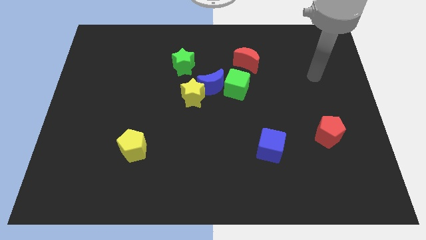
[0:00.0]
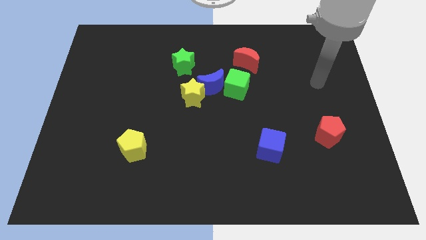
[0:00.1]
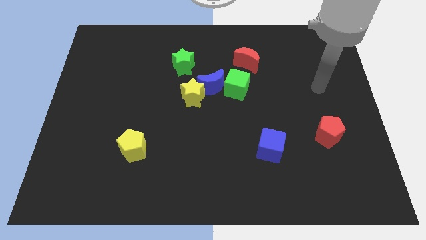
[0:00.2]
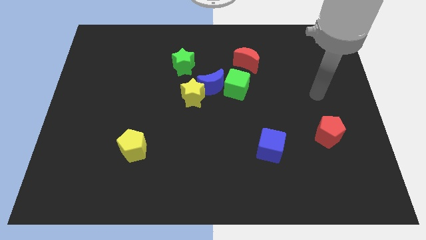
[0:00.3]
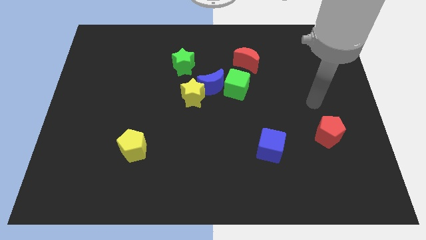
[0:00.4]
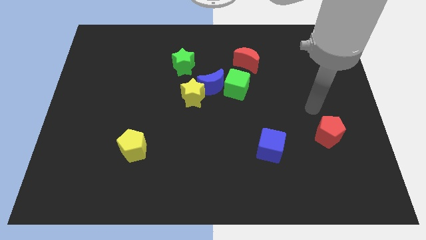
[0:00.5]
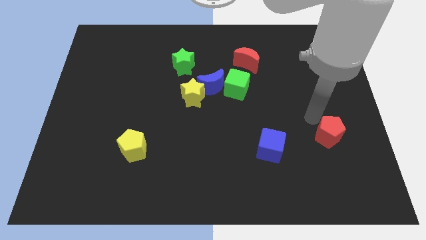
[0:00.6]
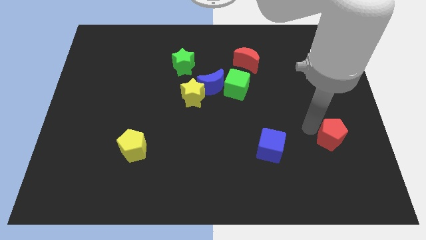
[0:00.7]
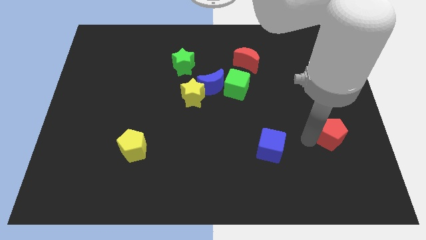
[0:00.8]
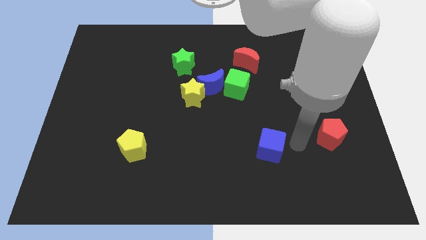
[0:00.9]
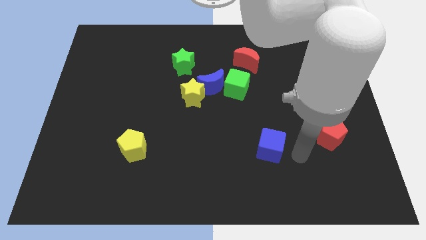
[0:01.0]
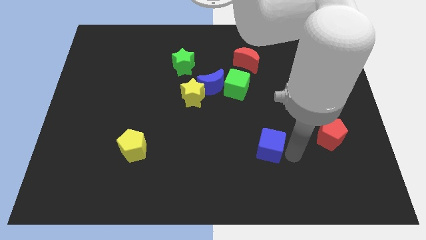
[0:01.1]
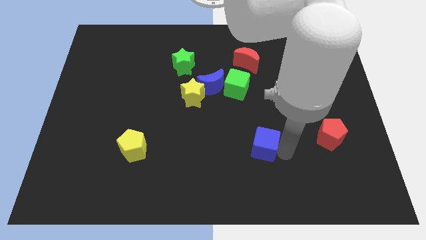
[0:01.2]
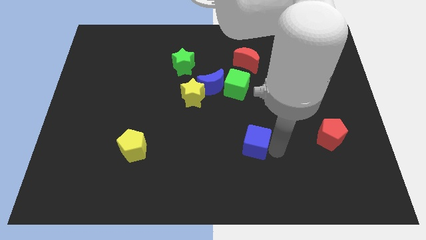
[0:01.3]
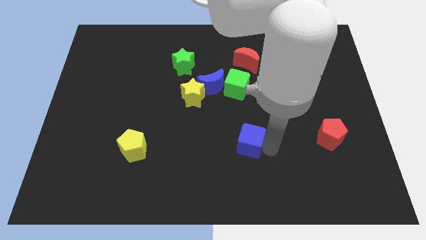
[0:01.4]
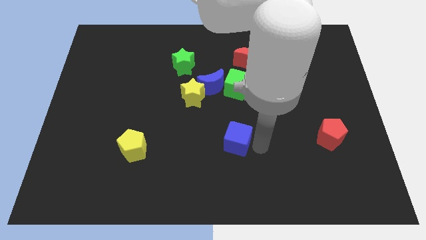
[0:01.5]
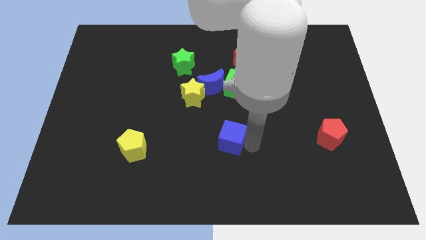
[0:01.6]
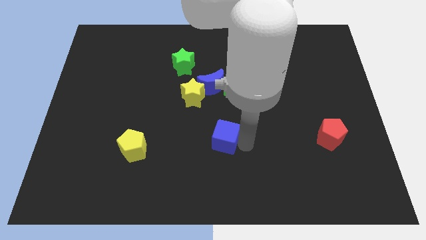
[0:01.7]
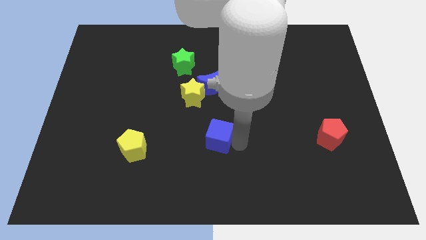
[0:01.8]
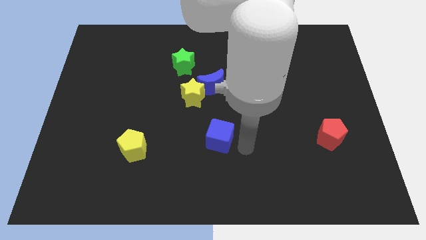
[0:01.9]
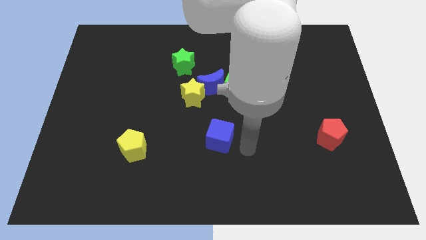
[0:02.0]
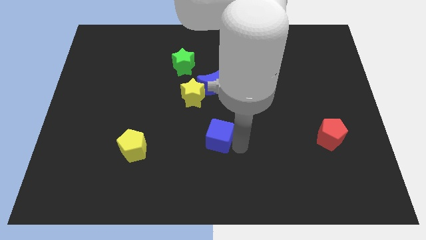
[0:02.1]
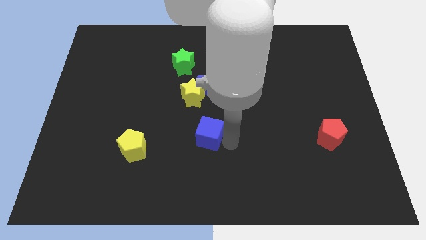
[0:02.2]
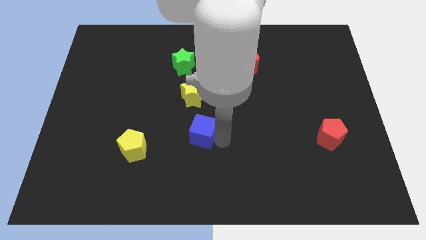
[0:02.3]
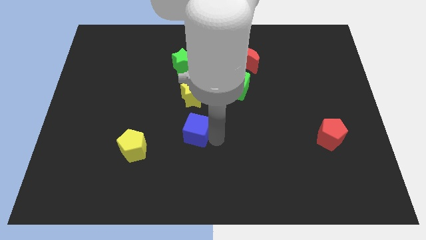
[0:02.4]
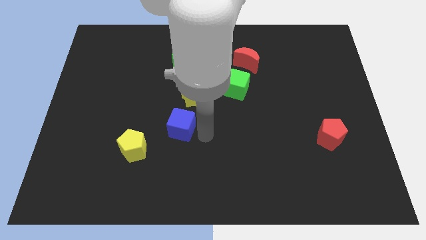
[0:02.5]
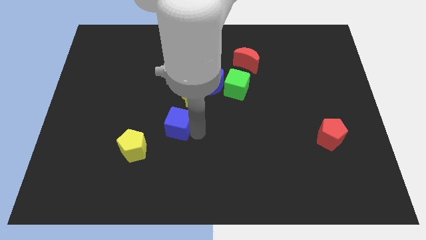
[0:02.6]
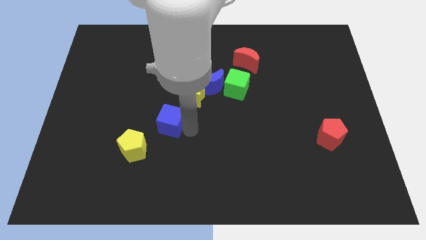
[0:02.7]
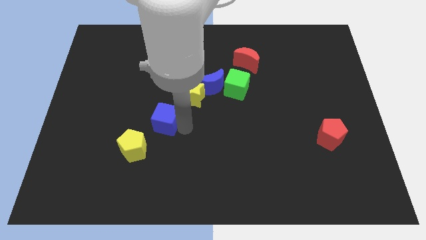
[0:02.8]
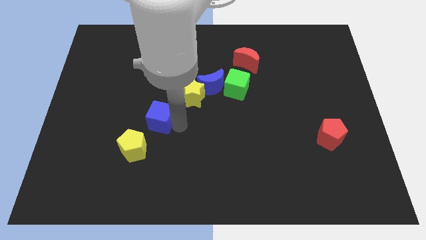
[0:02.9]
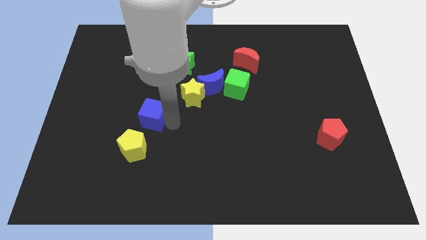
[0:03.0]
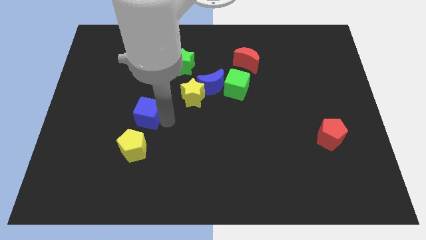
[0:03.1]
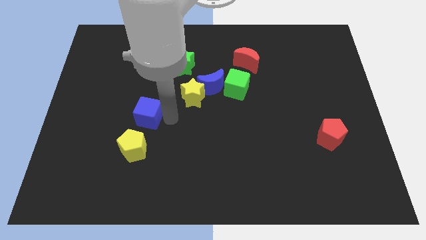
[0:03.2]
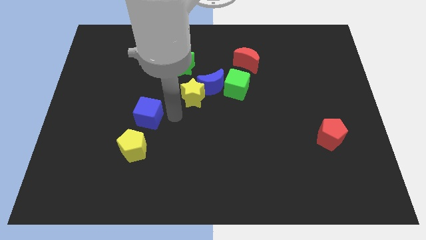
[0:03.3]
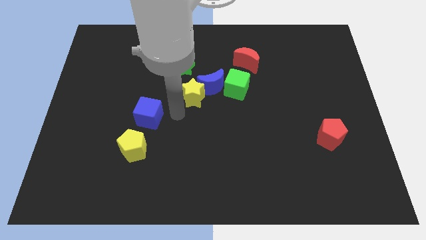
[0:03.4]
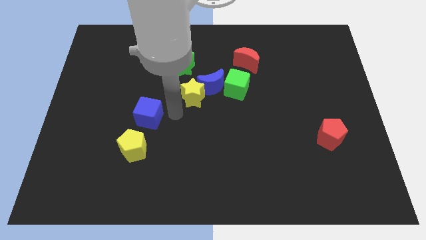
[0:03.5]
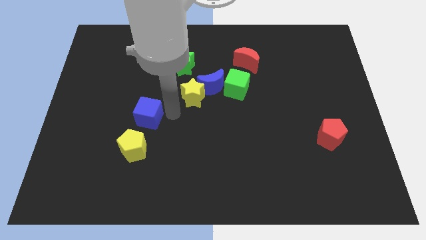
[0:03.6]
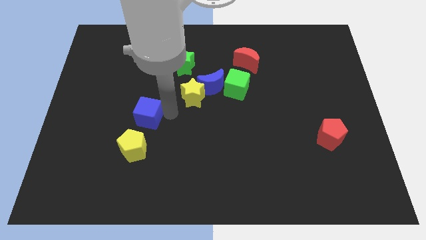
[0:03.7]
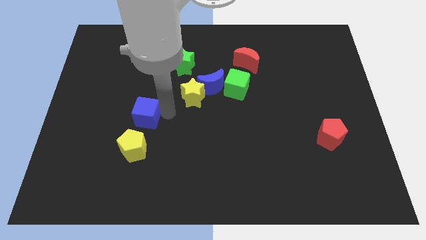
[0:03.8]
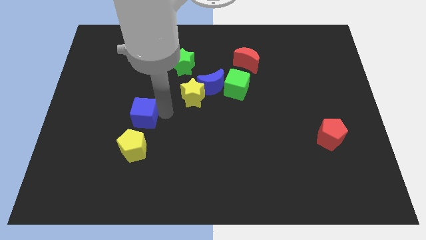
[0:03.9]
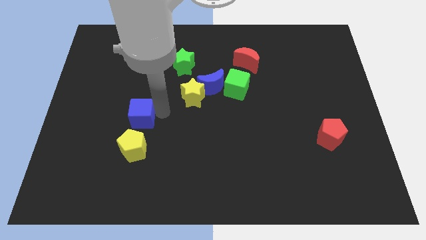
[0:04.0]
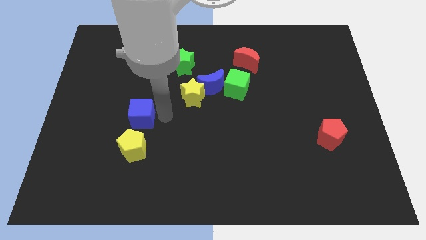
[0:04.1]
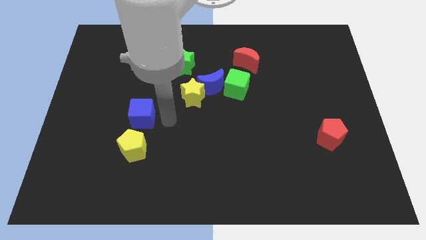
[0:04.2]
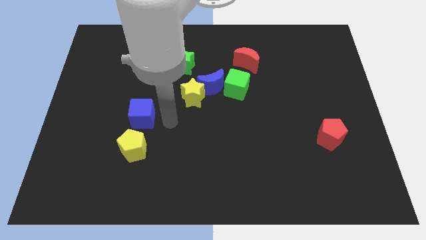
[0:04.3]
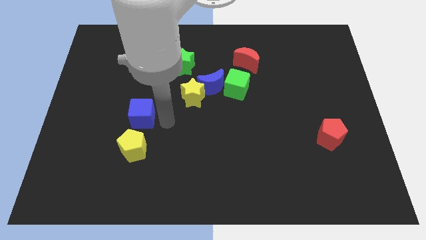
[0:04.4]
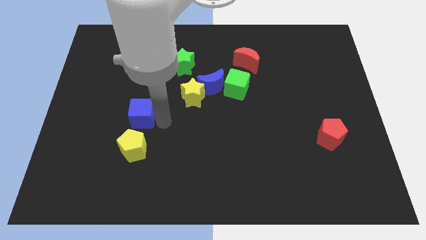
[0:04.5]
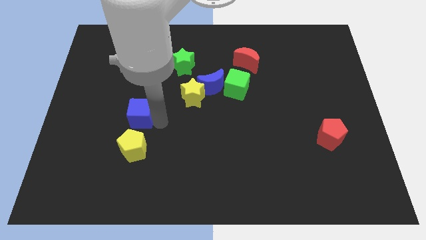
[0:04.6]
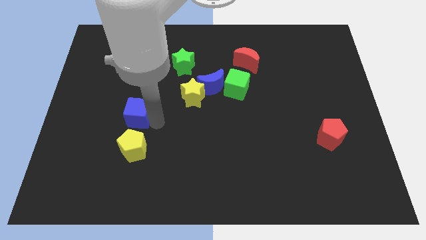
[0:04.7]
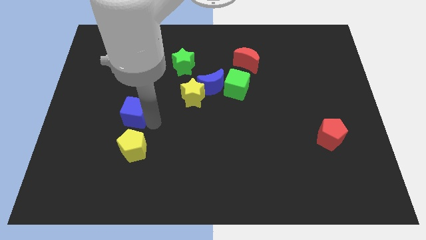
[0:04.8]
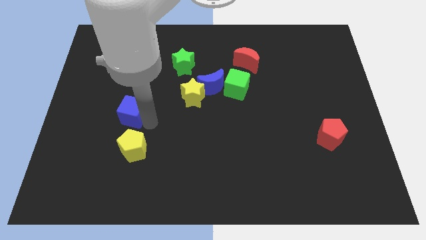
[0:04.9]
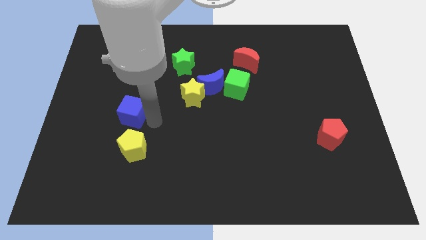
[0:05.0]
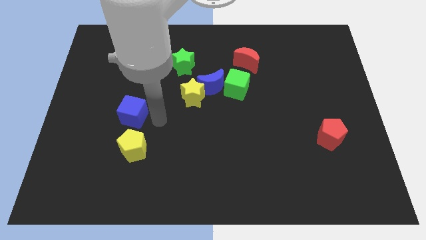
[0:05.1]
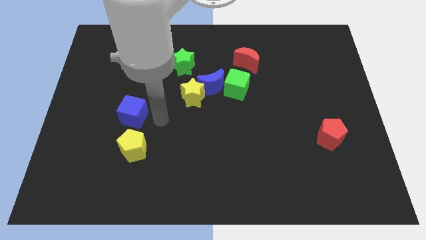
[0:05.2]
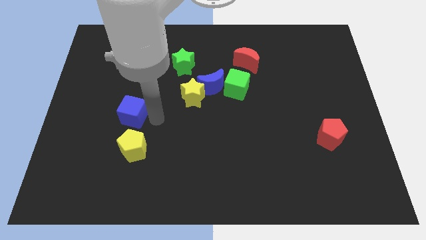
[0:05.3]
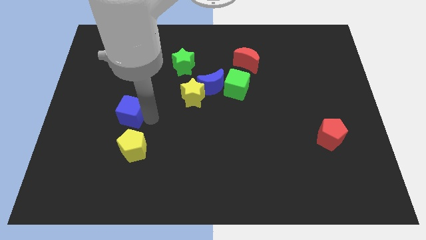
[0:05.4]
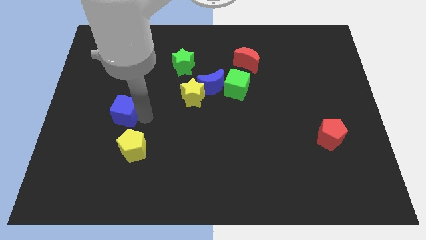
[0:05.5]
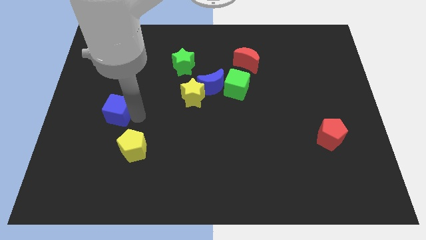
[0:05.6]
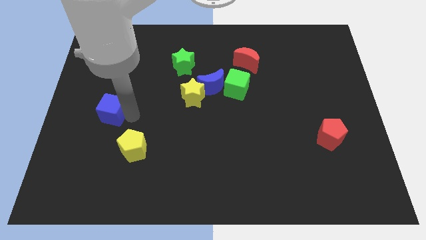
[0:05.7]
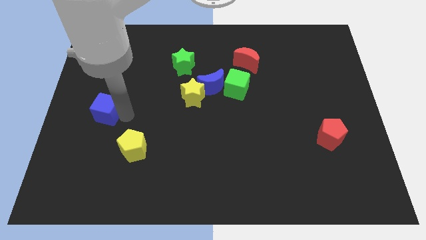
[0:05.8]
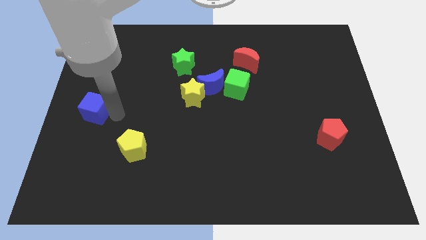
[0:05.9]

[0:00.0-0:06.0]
slide the blue cube to the center left

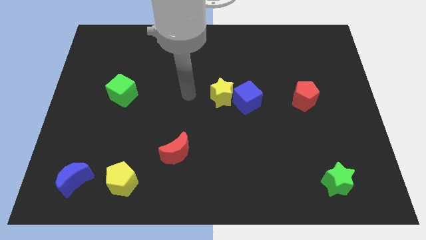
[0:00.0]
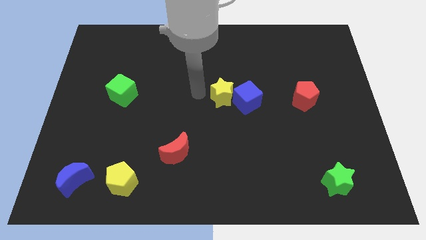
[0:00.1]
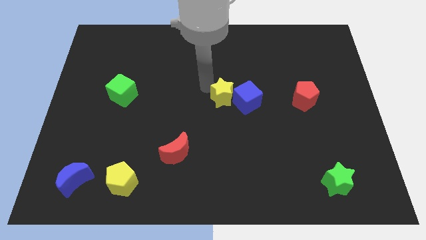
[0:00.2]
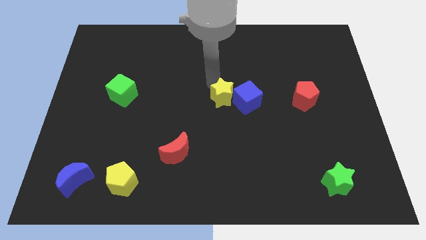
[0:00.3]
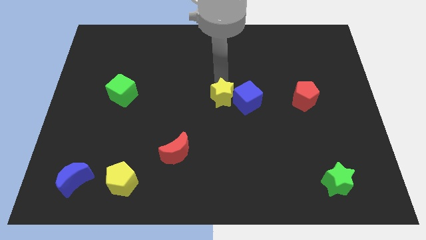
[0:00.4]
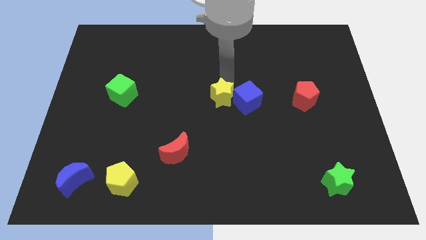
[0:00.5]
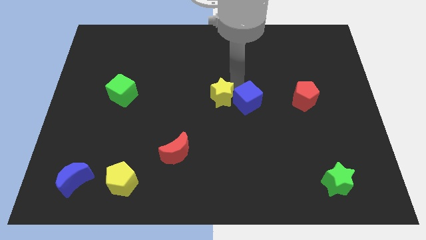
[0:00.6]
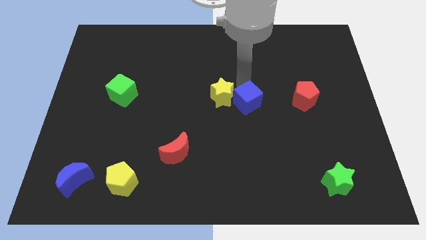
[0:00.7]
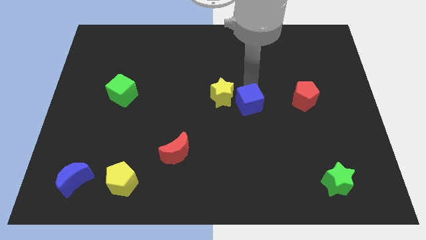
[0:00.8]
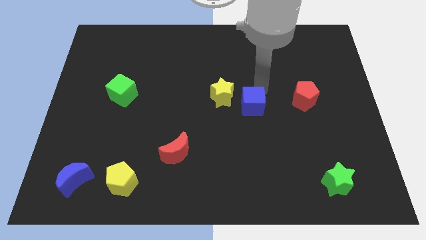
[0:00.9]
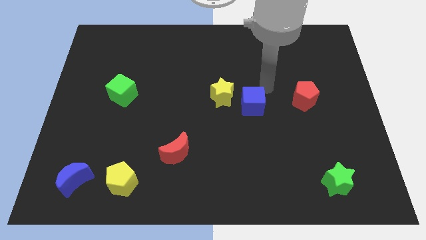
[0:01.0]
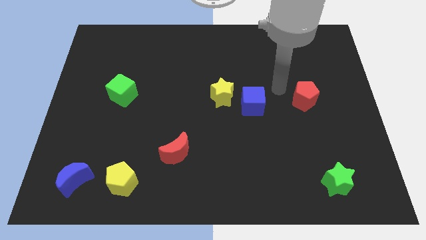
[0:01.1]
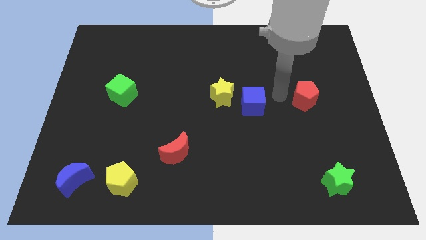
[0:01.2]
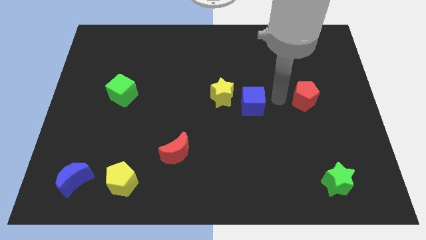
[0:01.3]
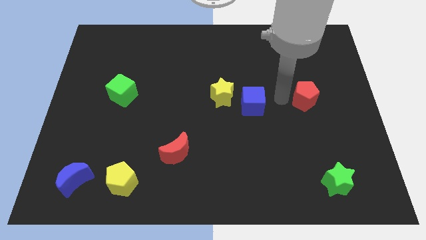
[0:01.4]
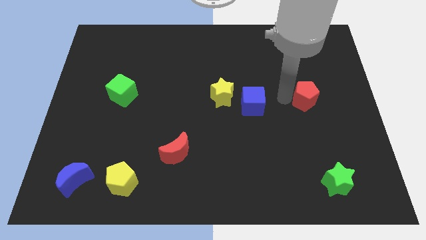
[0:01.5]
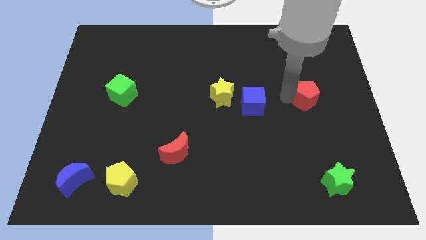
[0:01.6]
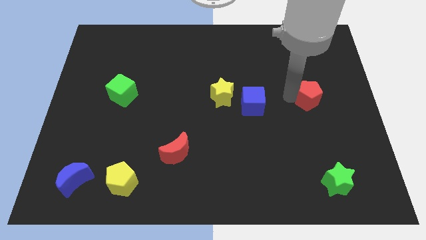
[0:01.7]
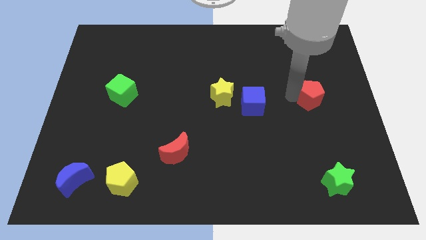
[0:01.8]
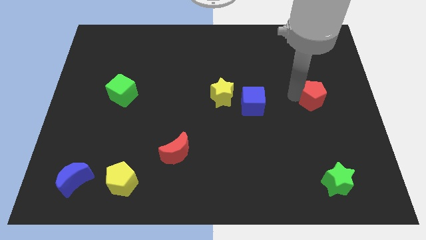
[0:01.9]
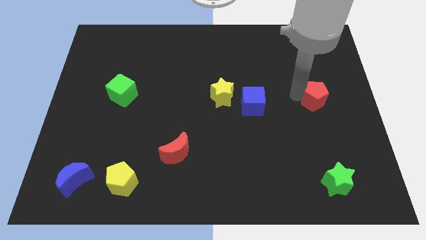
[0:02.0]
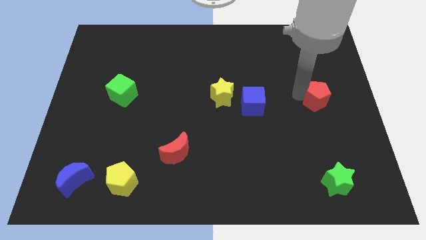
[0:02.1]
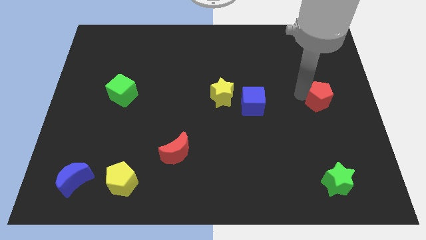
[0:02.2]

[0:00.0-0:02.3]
slide the red pentagon to the right side
